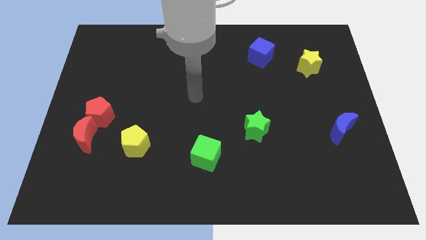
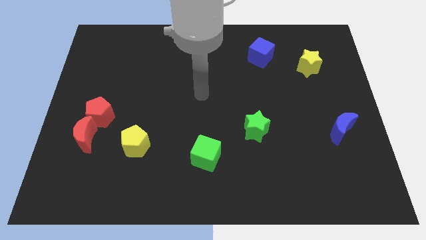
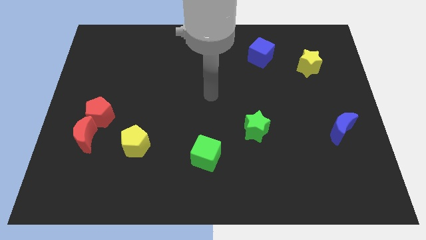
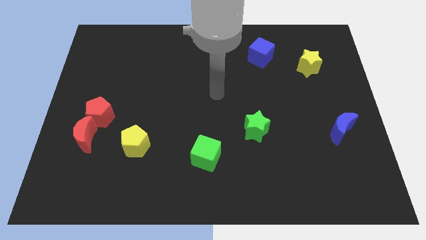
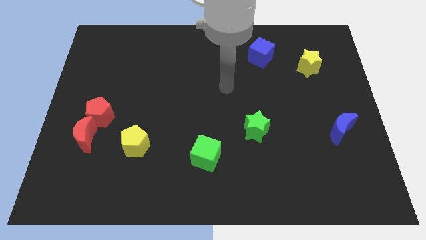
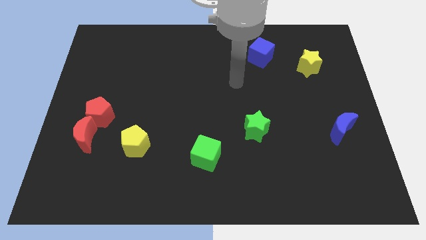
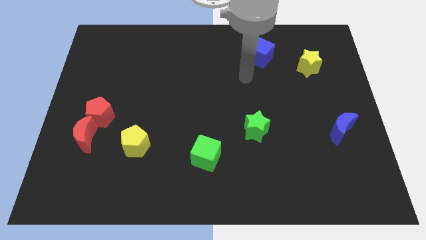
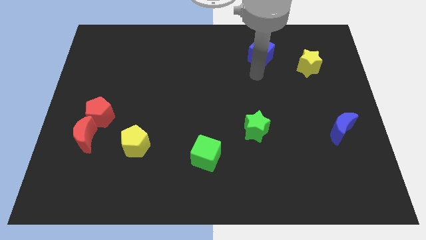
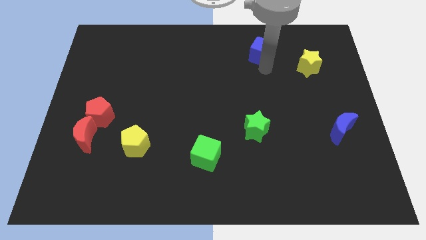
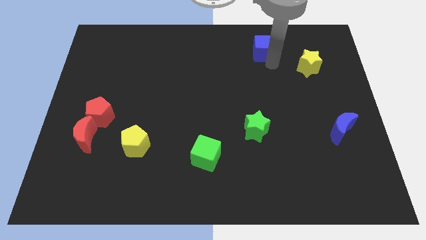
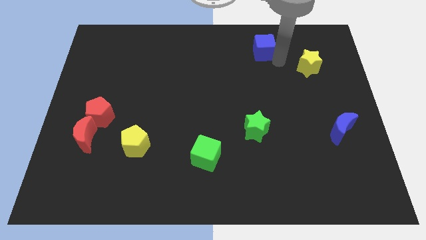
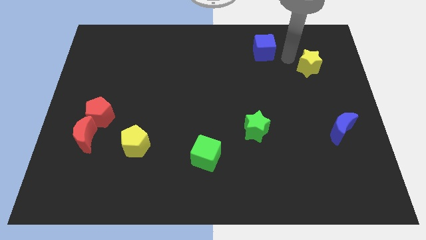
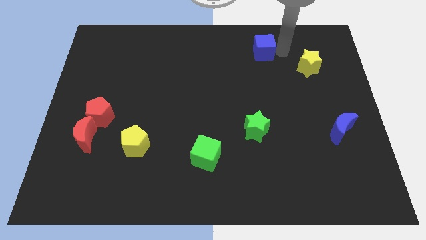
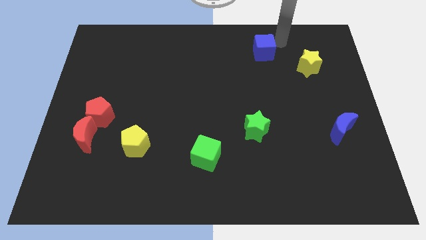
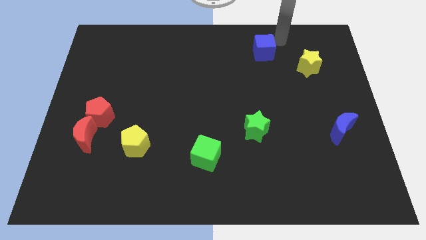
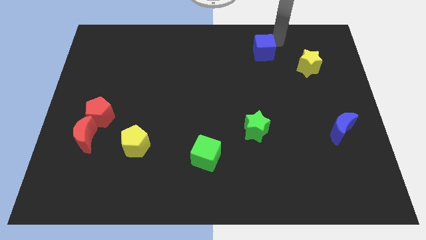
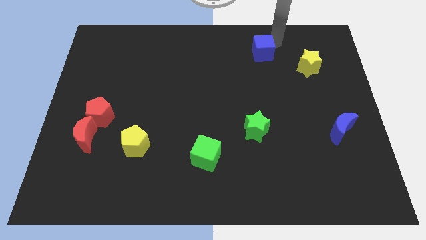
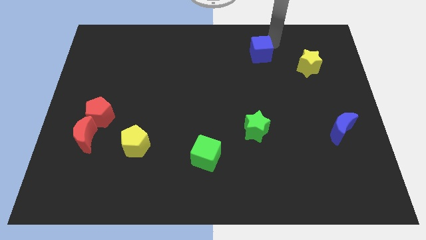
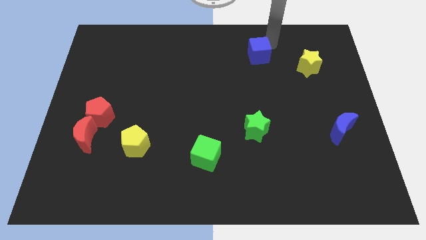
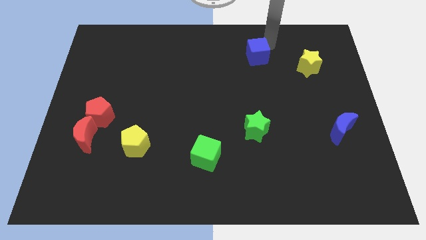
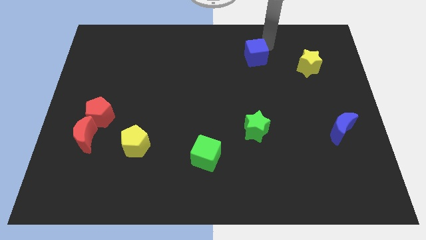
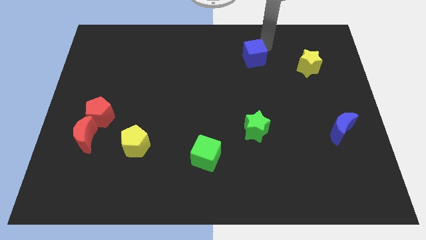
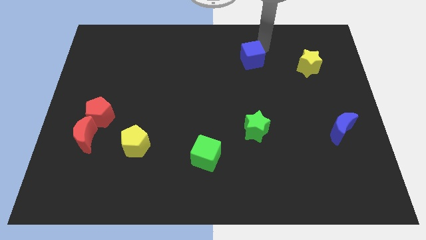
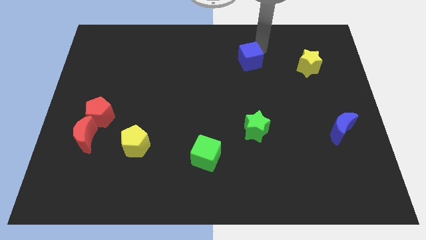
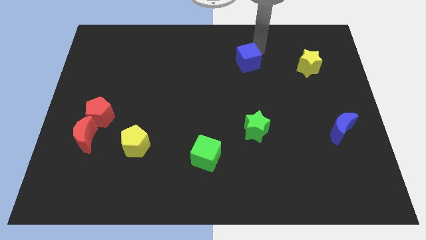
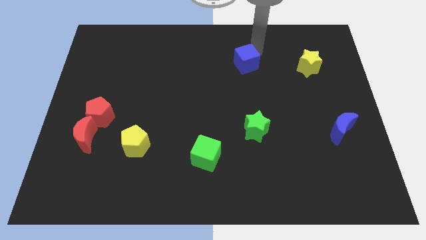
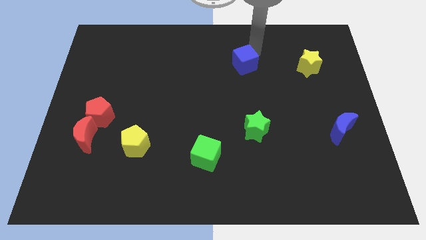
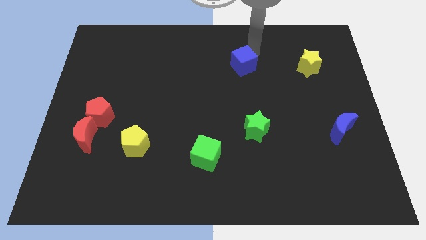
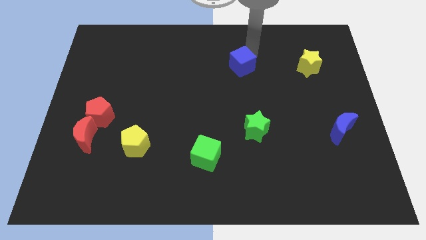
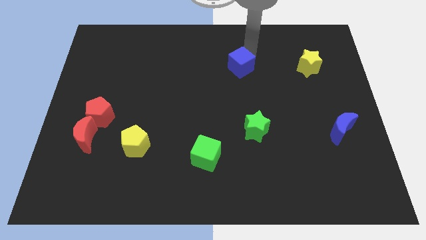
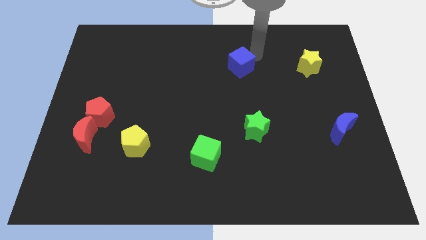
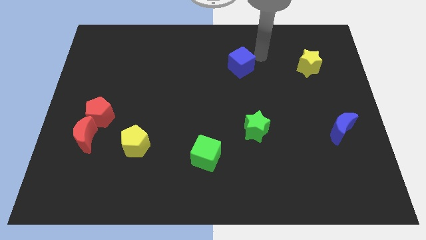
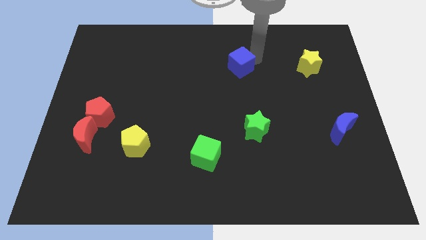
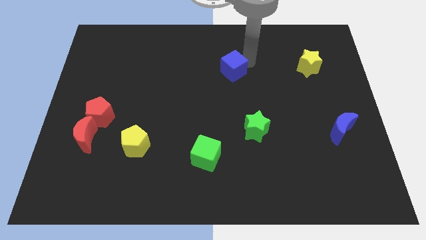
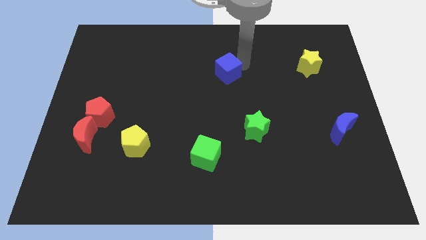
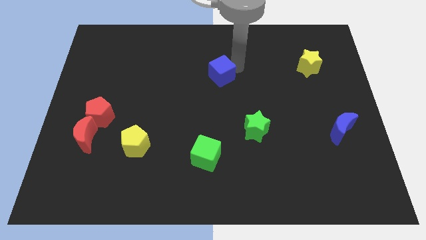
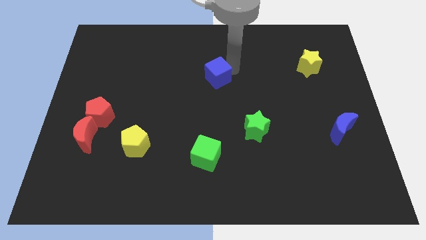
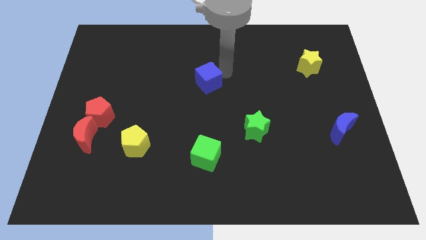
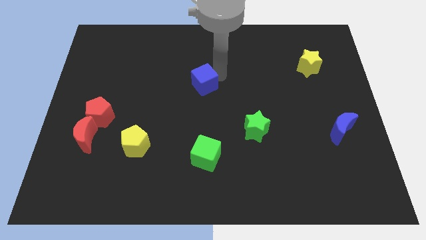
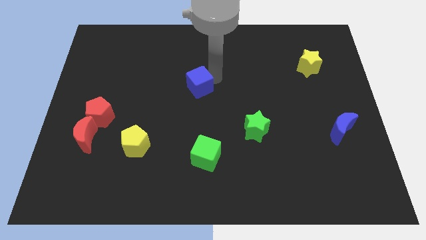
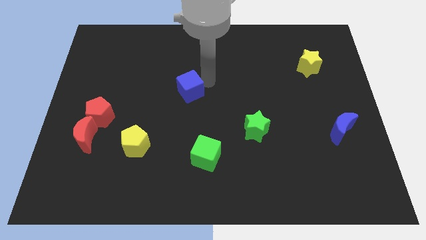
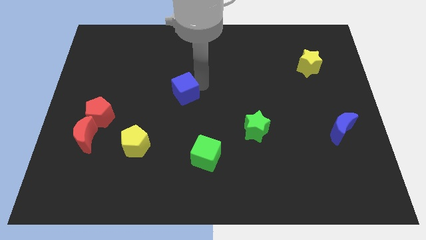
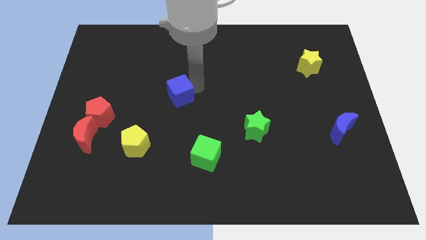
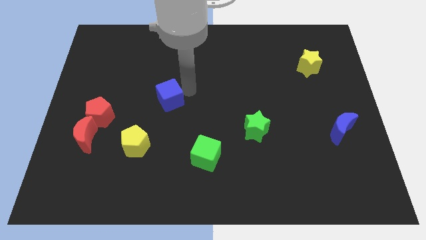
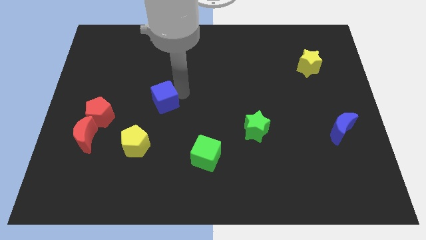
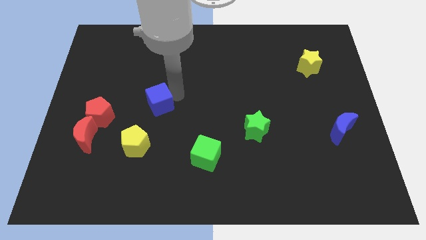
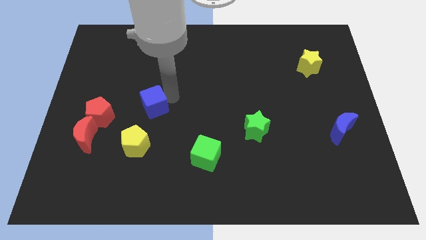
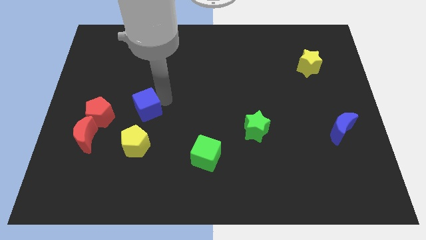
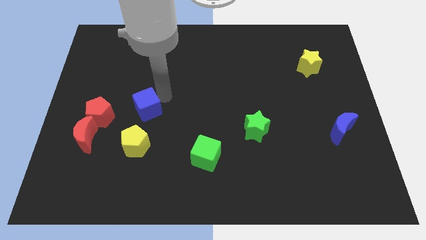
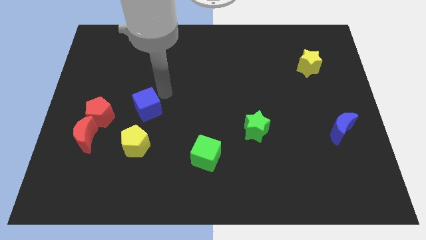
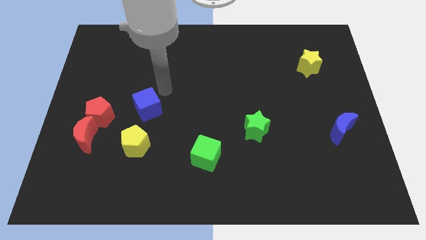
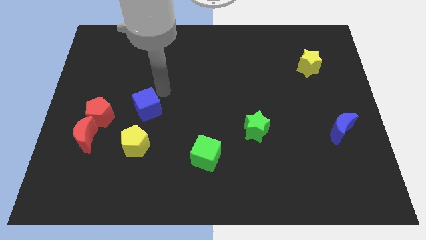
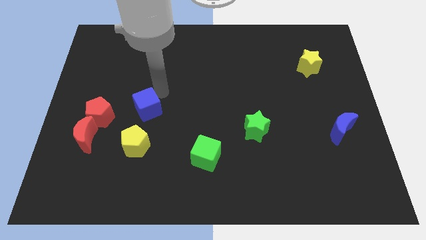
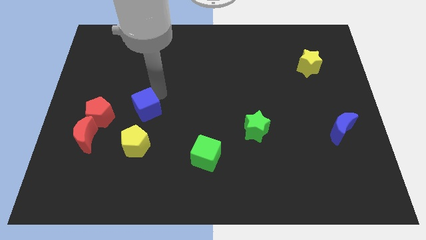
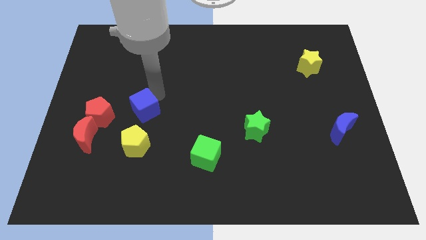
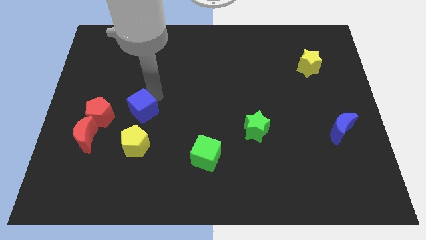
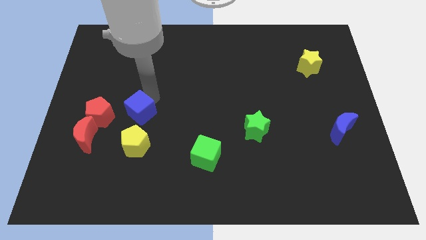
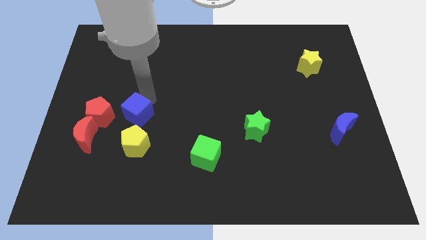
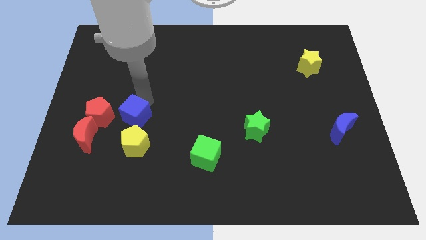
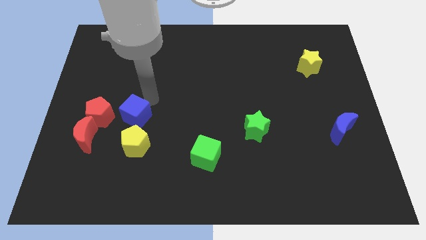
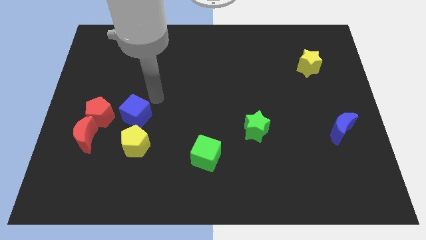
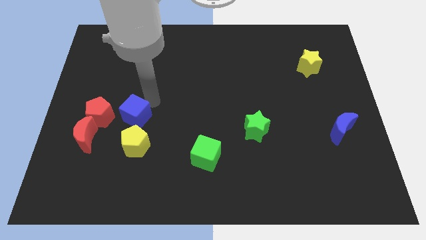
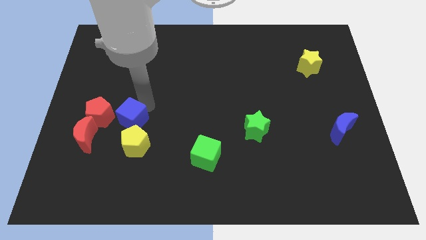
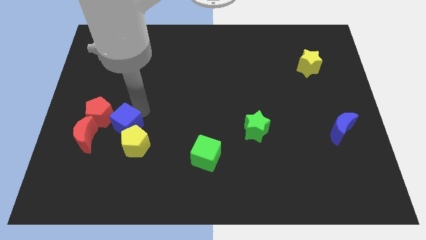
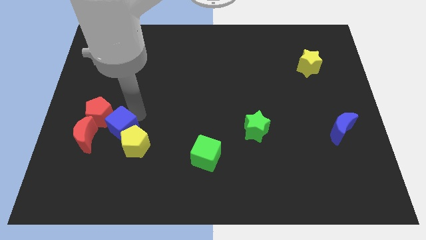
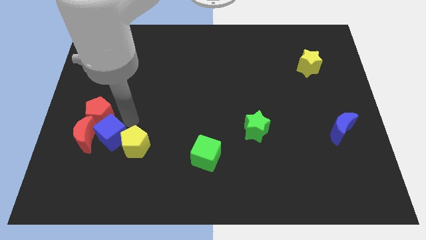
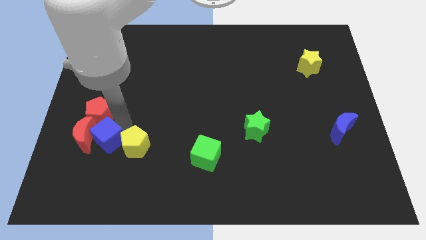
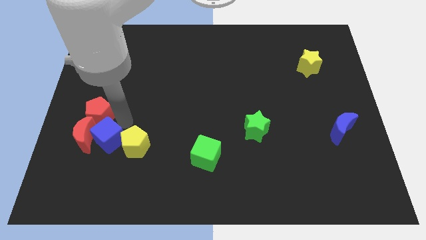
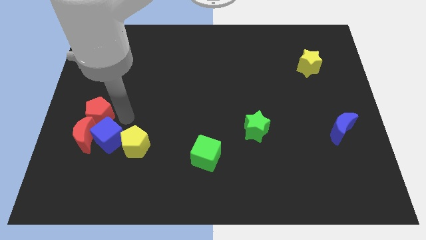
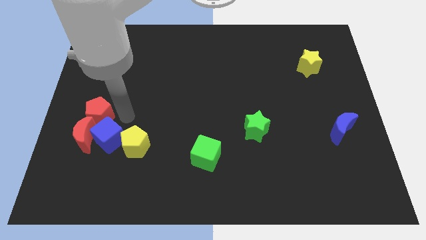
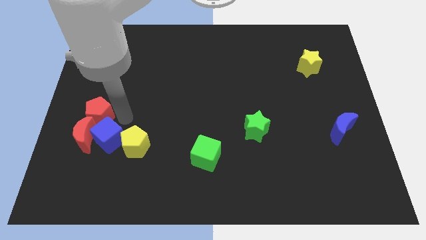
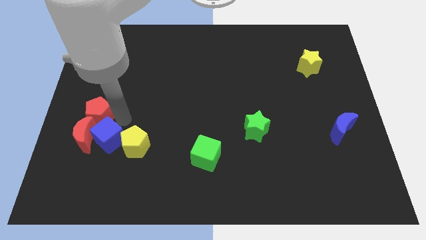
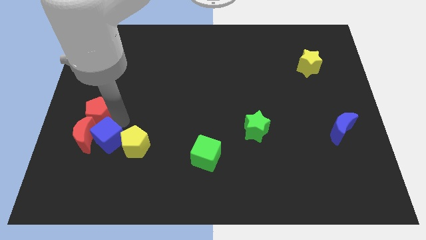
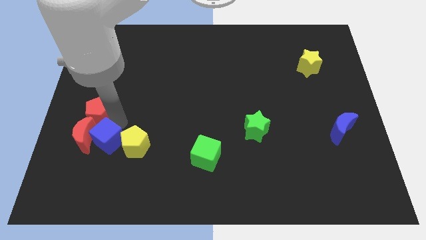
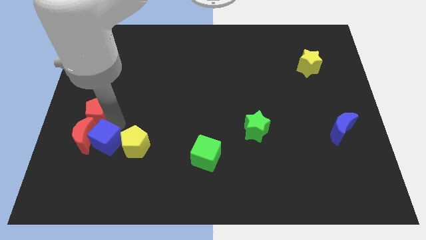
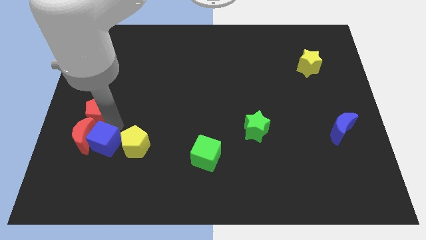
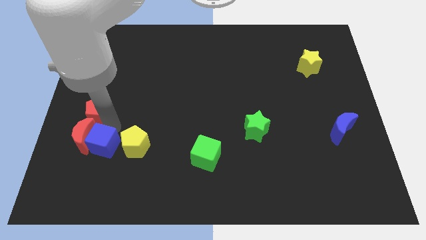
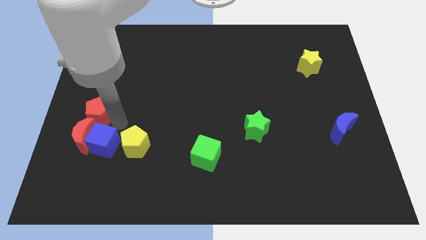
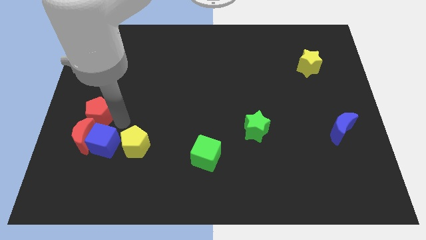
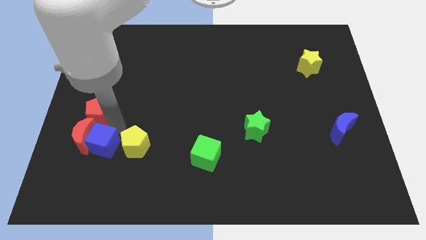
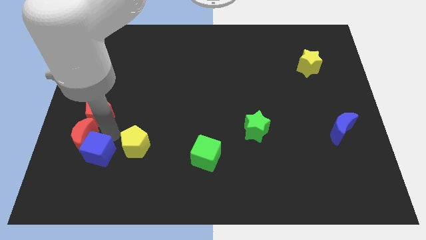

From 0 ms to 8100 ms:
move the blue cube to the bottom side of the red moon
